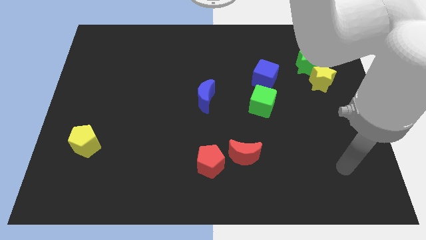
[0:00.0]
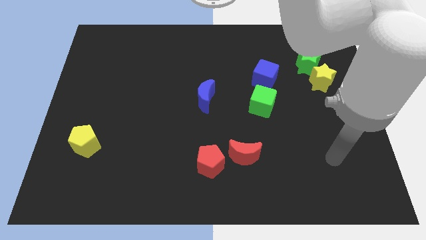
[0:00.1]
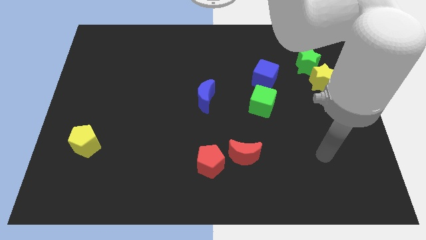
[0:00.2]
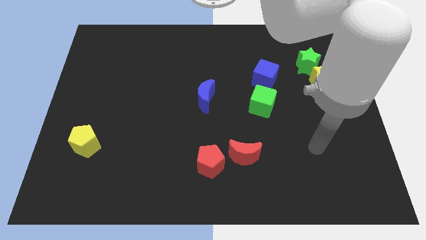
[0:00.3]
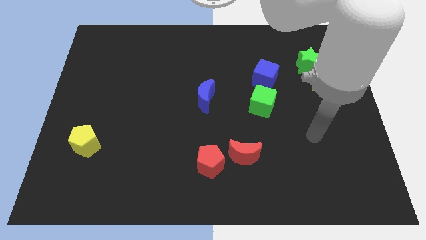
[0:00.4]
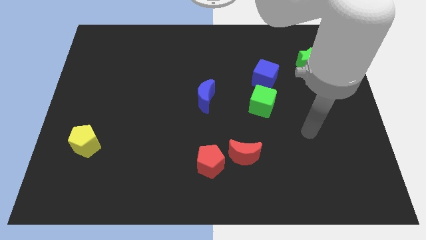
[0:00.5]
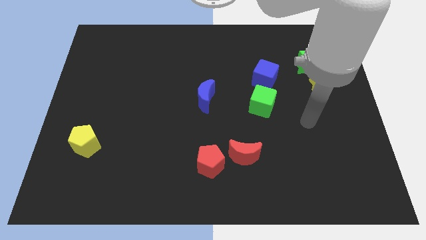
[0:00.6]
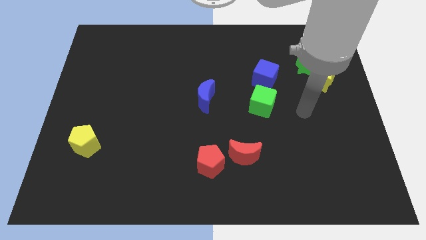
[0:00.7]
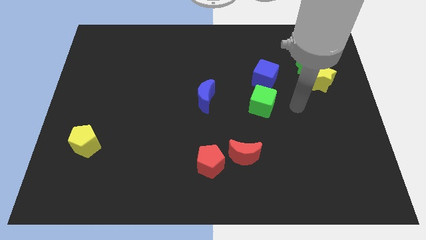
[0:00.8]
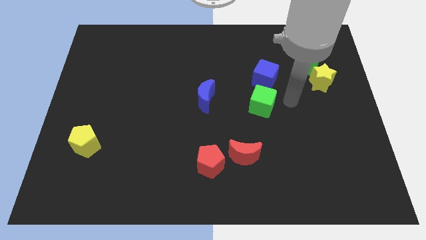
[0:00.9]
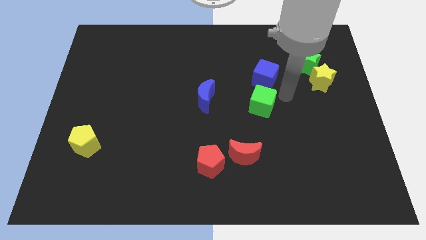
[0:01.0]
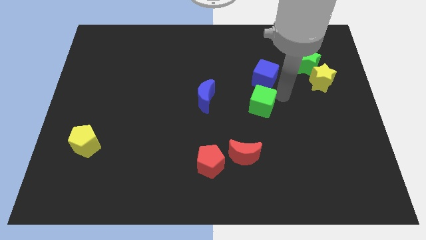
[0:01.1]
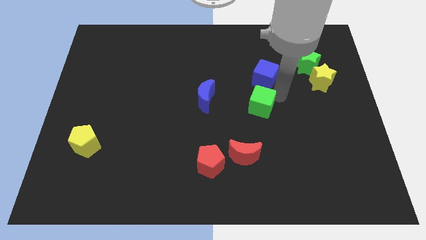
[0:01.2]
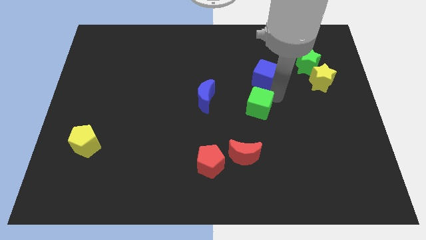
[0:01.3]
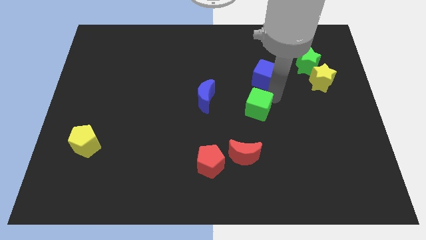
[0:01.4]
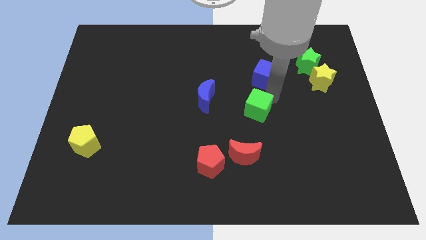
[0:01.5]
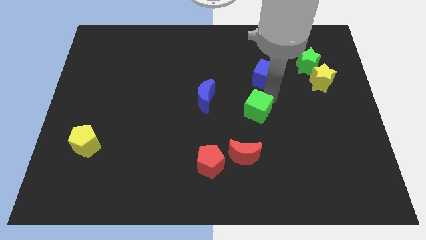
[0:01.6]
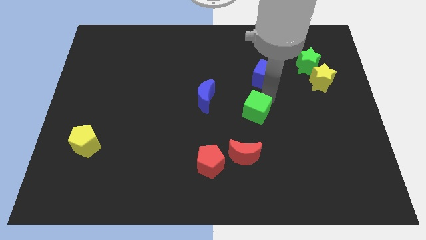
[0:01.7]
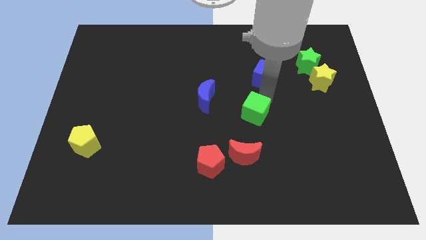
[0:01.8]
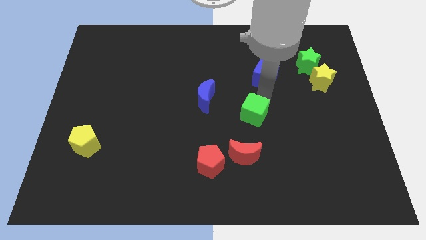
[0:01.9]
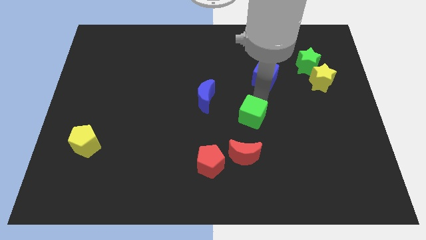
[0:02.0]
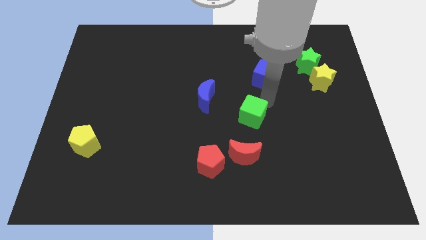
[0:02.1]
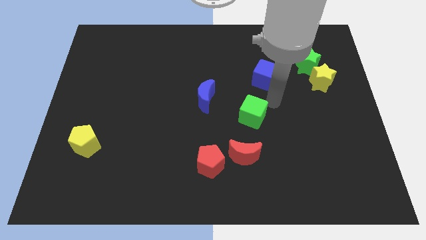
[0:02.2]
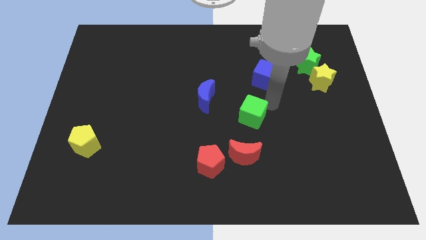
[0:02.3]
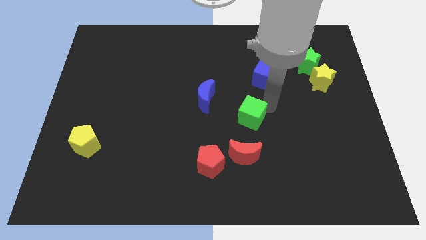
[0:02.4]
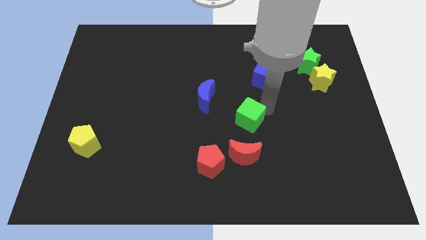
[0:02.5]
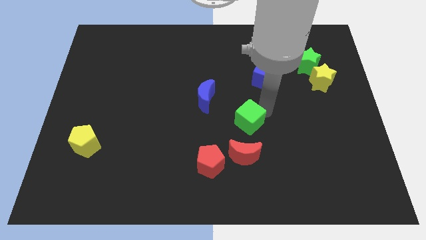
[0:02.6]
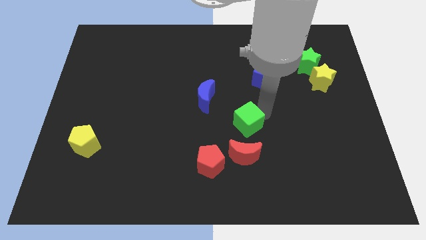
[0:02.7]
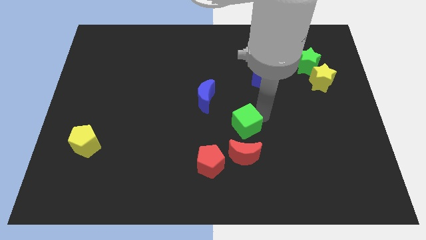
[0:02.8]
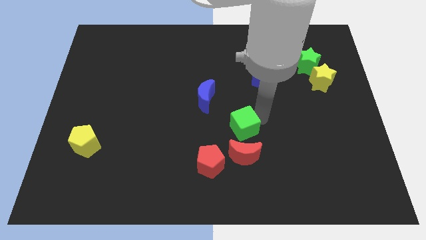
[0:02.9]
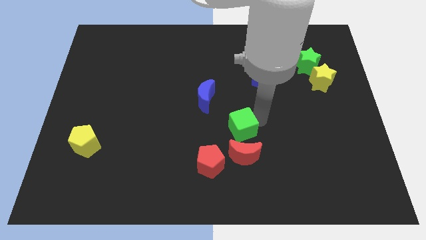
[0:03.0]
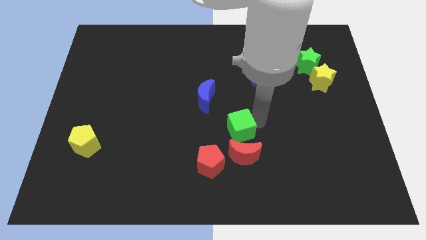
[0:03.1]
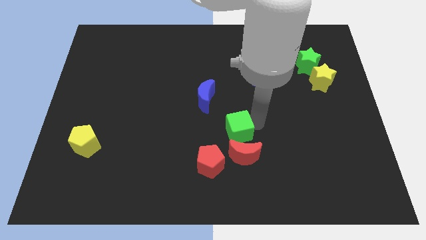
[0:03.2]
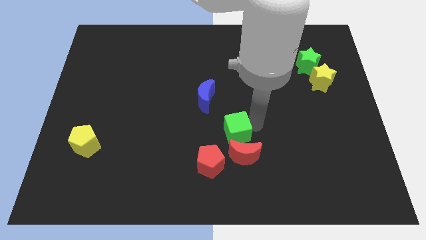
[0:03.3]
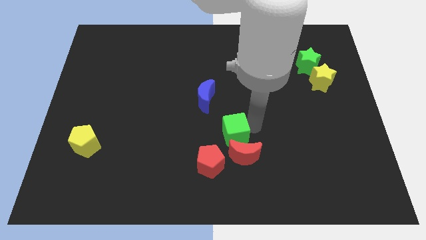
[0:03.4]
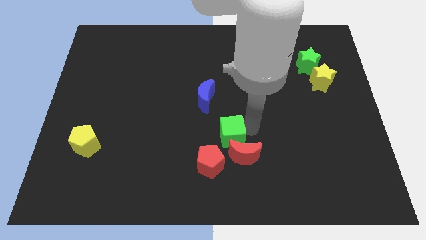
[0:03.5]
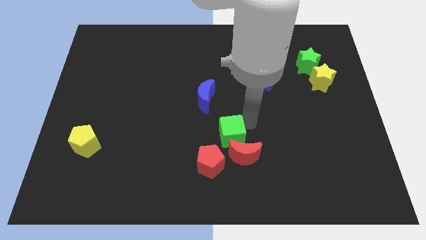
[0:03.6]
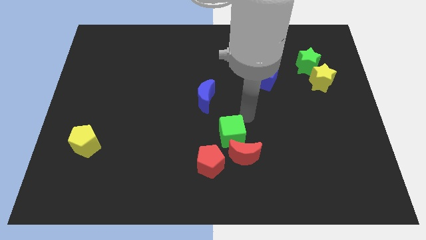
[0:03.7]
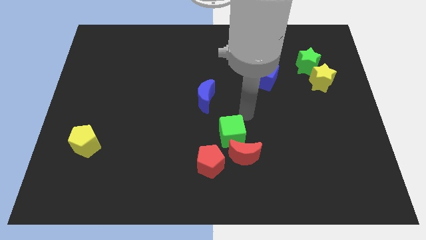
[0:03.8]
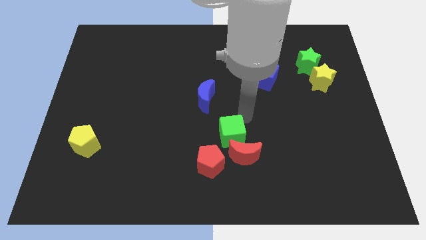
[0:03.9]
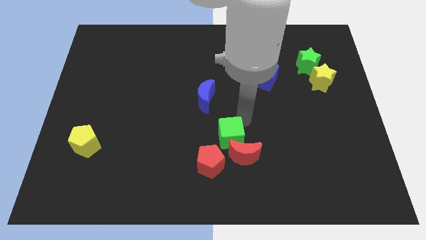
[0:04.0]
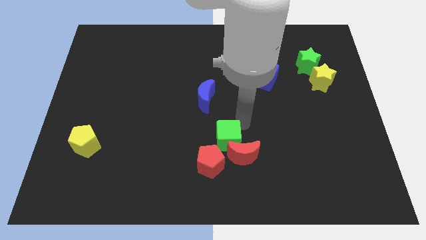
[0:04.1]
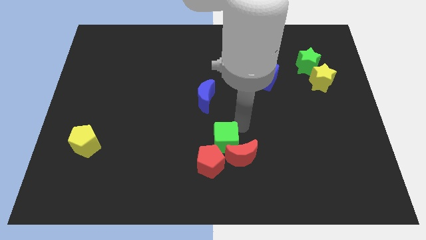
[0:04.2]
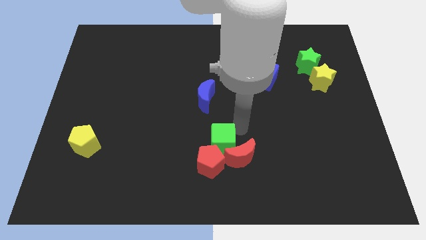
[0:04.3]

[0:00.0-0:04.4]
push the green cube next to the red pentagon

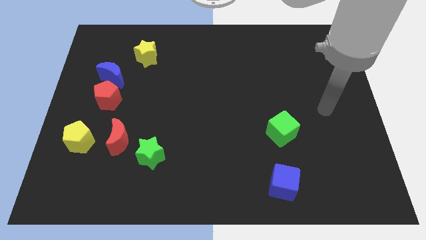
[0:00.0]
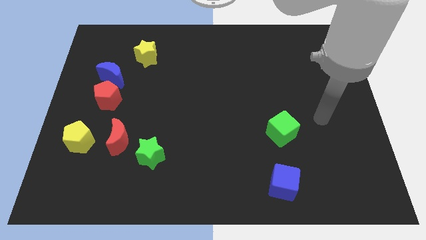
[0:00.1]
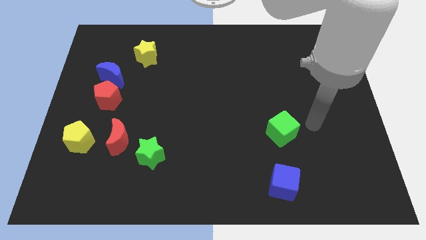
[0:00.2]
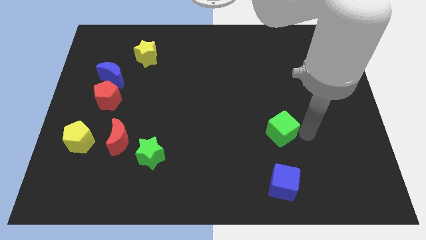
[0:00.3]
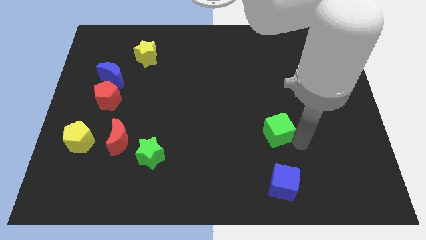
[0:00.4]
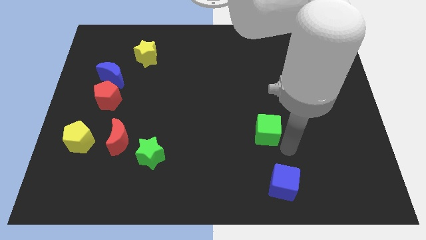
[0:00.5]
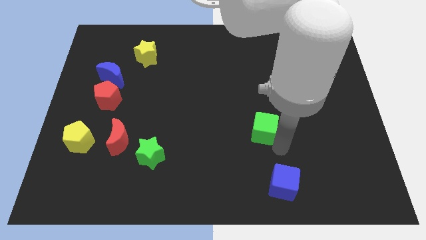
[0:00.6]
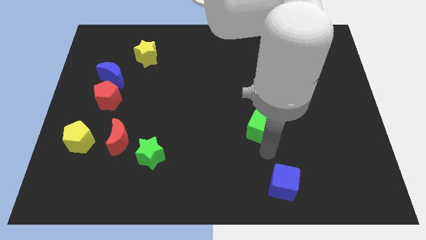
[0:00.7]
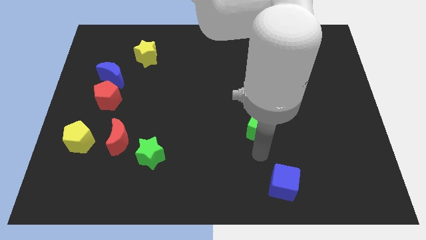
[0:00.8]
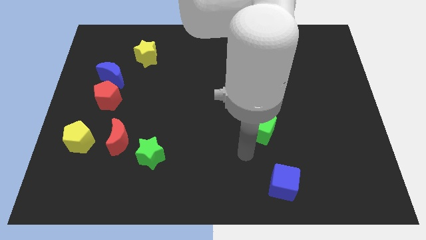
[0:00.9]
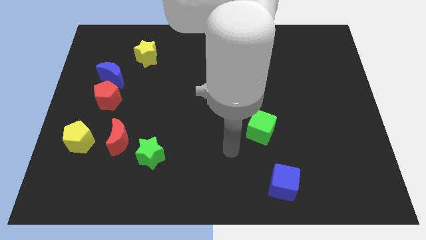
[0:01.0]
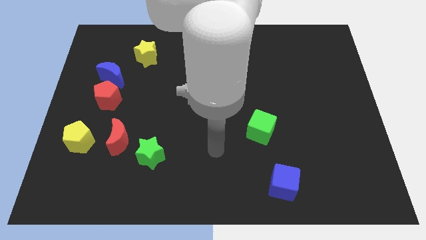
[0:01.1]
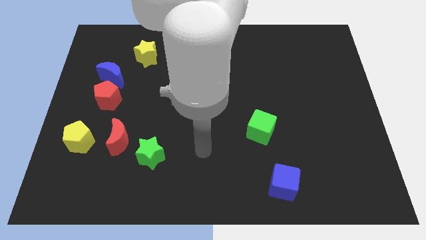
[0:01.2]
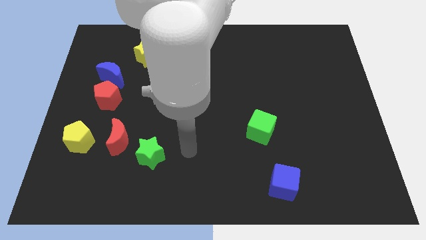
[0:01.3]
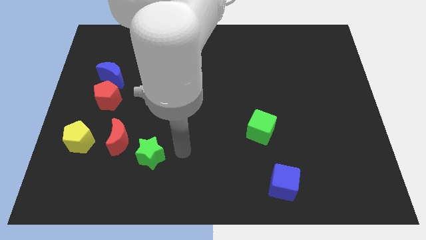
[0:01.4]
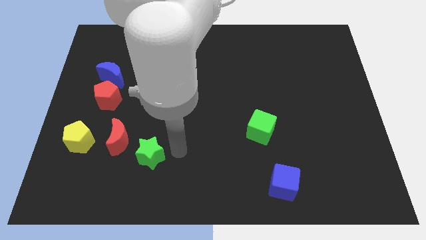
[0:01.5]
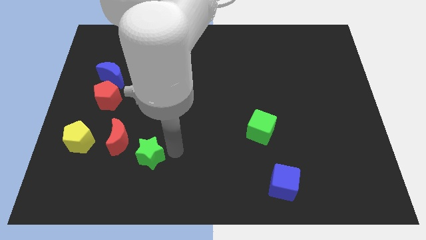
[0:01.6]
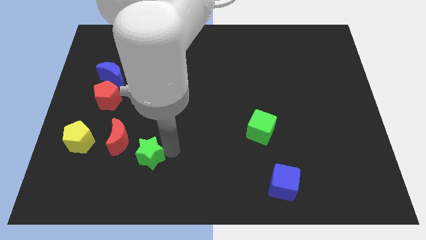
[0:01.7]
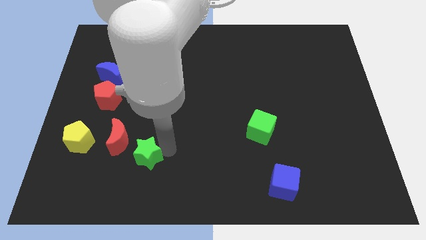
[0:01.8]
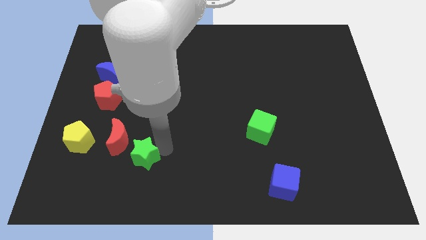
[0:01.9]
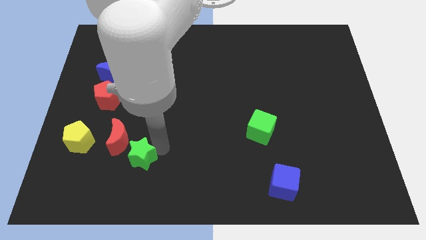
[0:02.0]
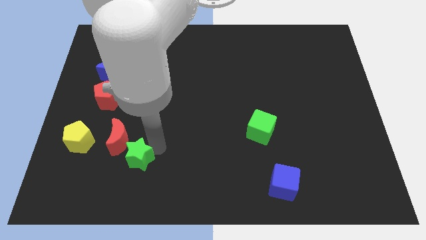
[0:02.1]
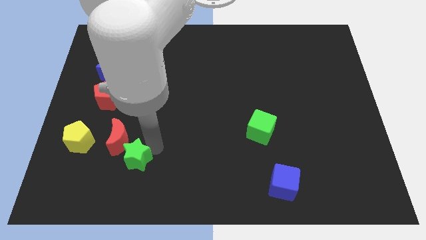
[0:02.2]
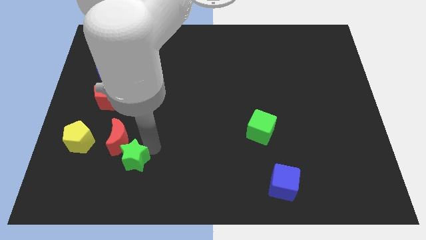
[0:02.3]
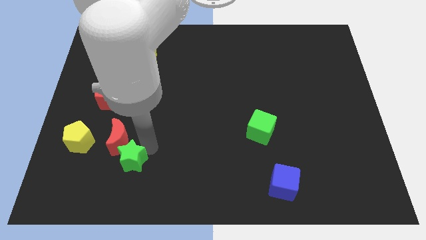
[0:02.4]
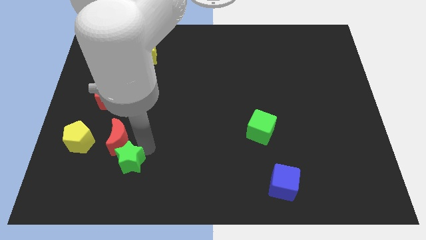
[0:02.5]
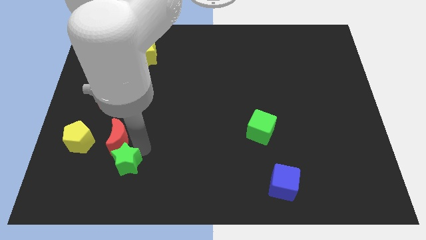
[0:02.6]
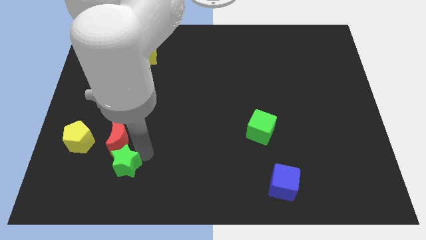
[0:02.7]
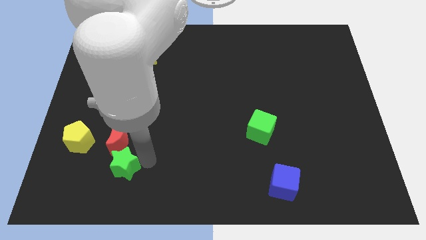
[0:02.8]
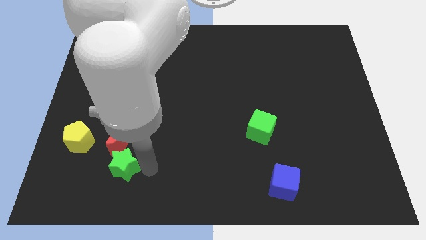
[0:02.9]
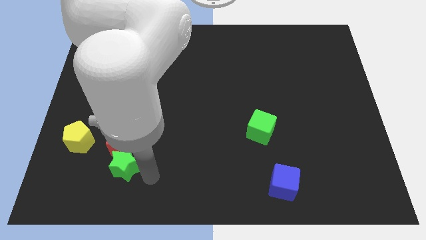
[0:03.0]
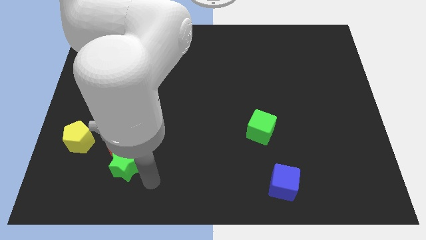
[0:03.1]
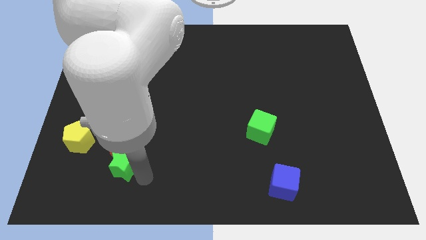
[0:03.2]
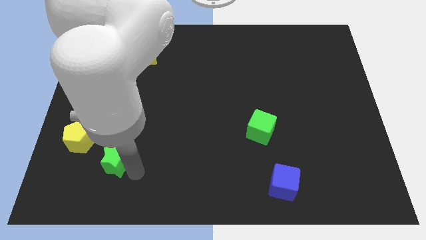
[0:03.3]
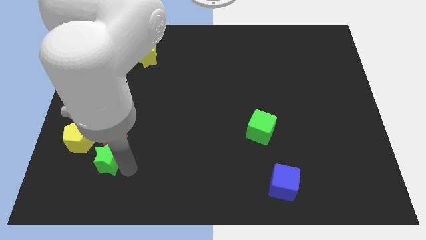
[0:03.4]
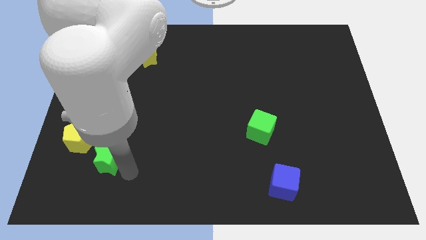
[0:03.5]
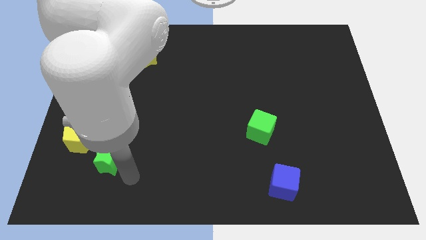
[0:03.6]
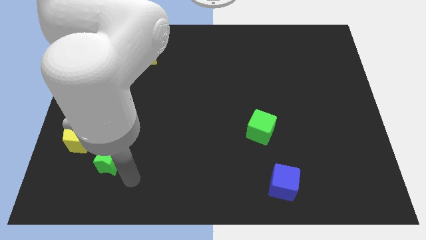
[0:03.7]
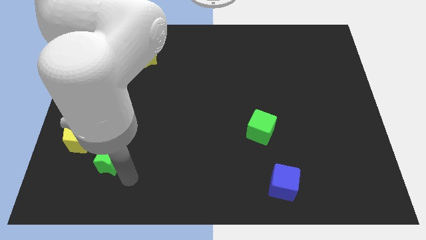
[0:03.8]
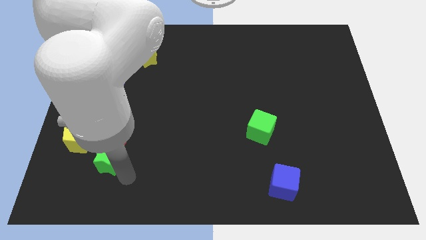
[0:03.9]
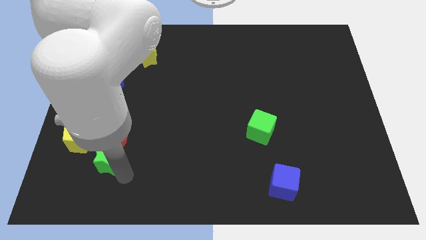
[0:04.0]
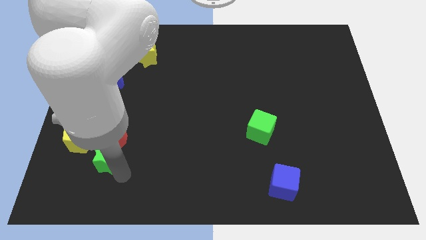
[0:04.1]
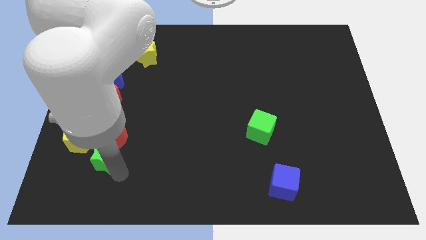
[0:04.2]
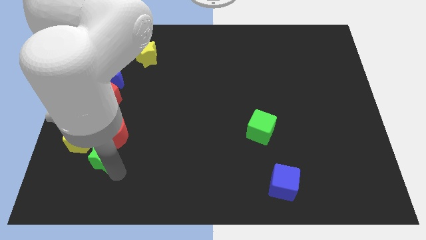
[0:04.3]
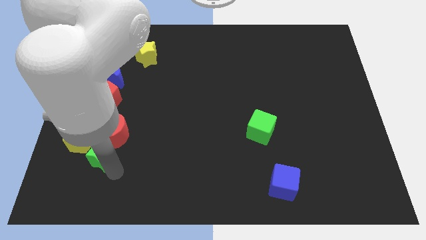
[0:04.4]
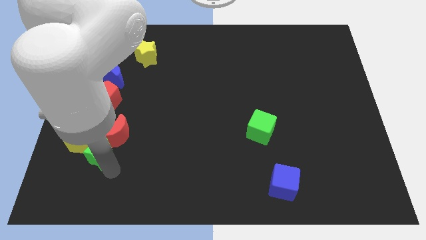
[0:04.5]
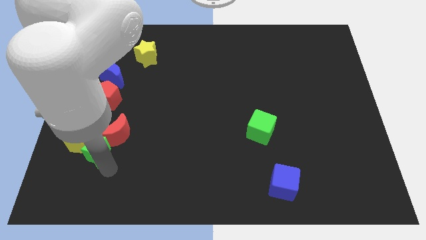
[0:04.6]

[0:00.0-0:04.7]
slide the green star close to the yellow pentagon
